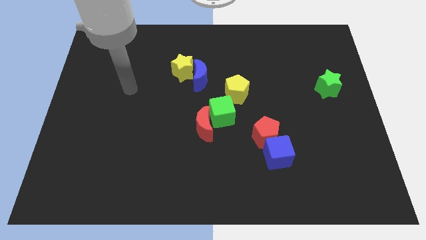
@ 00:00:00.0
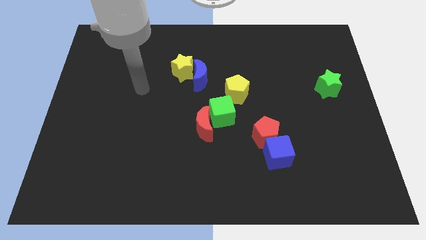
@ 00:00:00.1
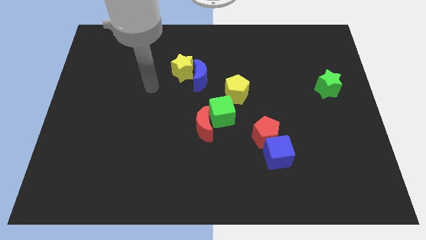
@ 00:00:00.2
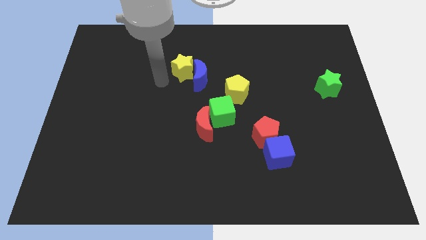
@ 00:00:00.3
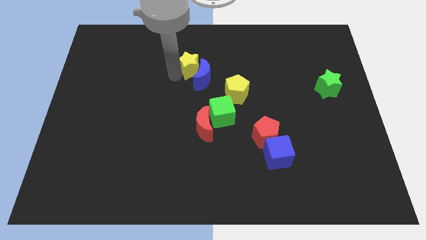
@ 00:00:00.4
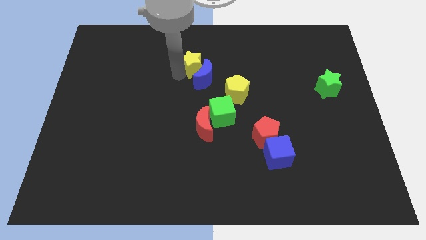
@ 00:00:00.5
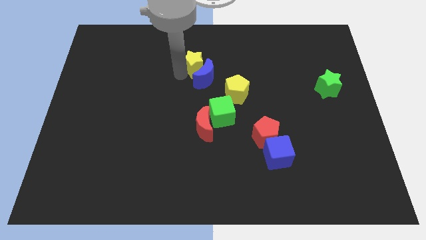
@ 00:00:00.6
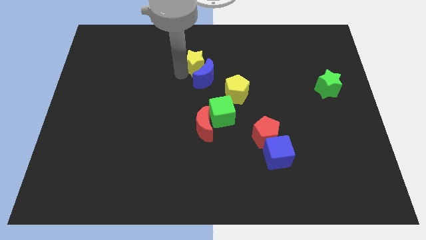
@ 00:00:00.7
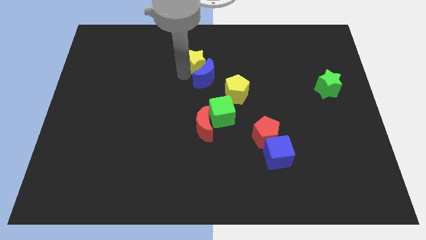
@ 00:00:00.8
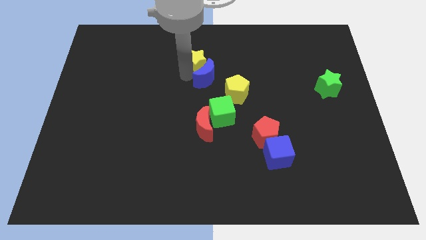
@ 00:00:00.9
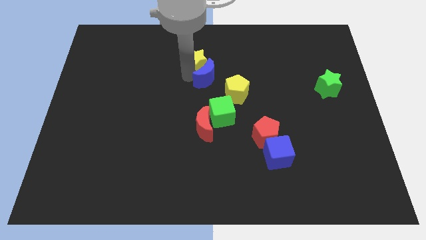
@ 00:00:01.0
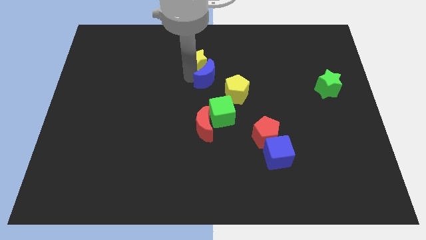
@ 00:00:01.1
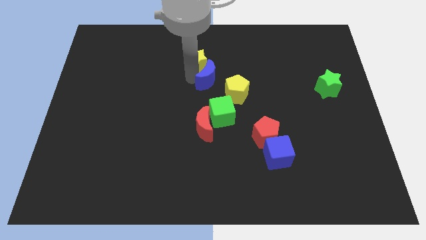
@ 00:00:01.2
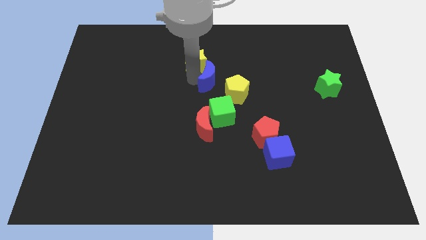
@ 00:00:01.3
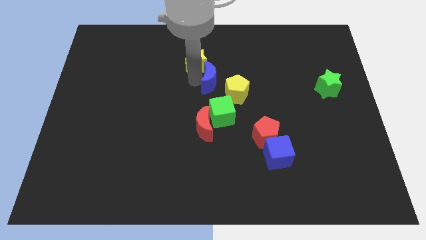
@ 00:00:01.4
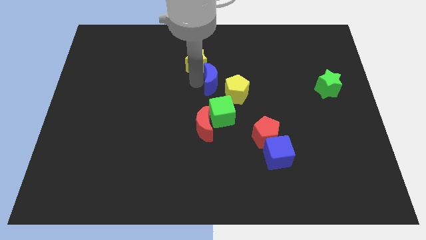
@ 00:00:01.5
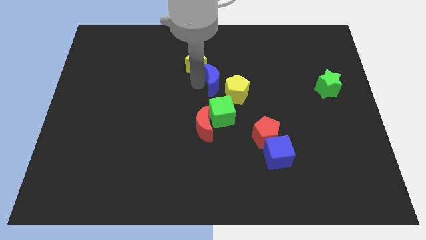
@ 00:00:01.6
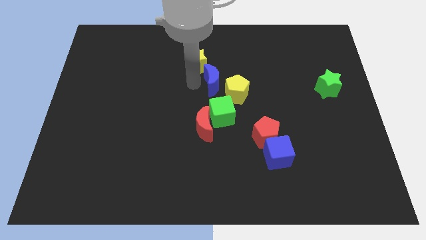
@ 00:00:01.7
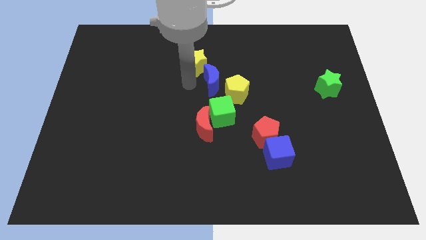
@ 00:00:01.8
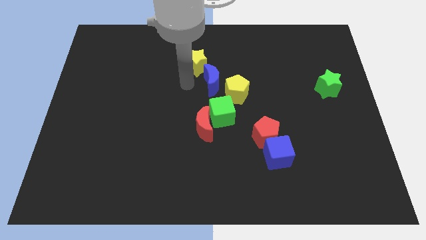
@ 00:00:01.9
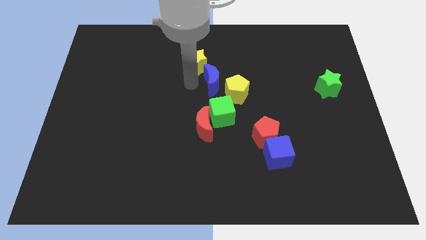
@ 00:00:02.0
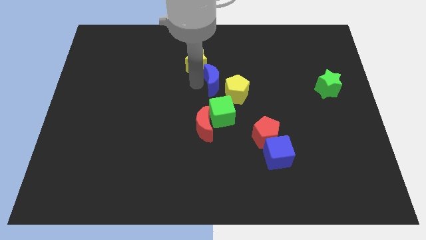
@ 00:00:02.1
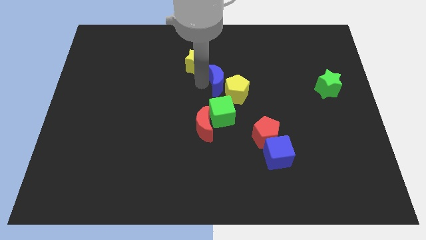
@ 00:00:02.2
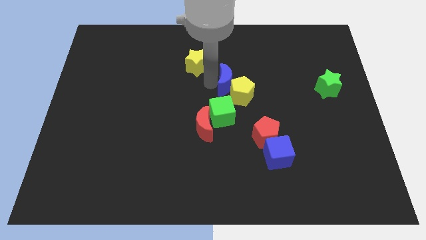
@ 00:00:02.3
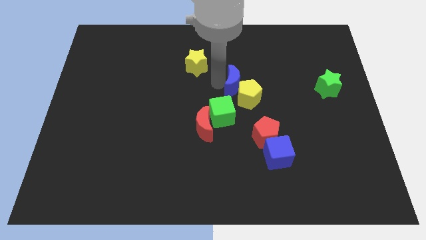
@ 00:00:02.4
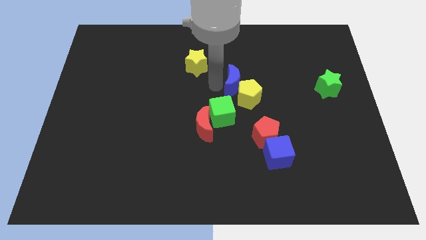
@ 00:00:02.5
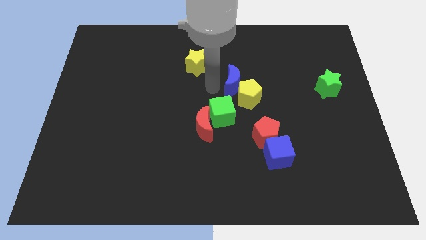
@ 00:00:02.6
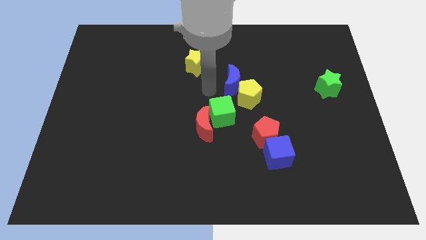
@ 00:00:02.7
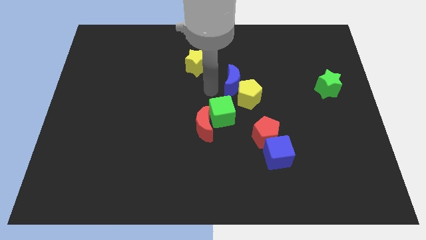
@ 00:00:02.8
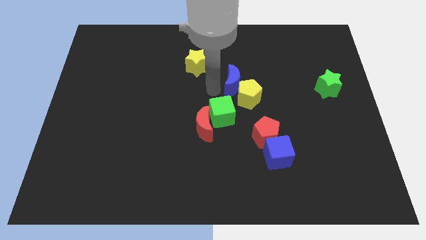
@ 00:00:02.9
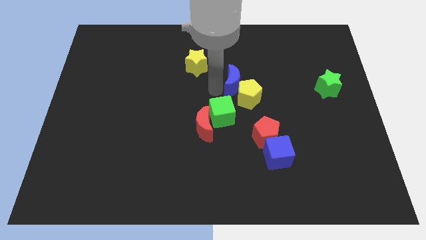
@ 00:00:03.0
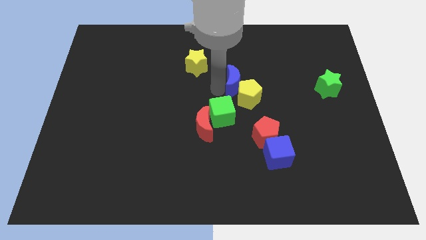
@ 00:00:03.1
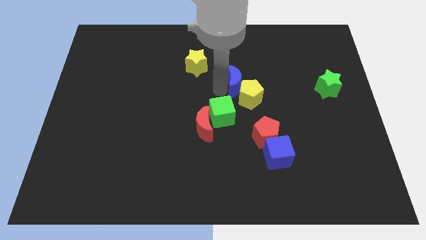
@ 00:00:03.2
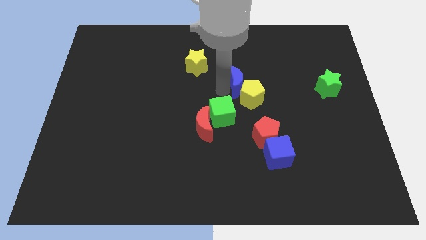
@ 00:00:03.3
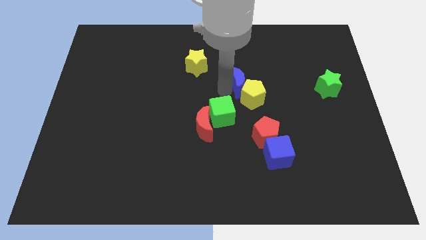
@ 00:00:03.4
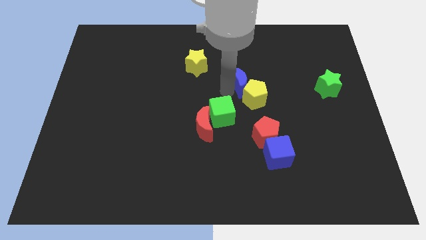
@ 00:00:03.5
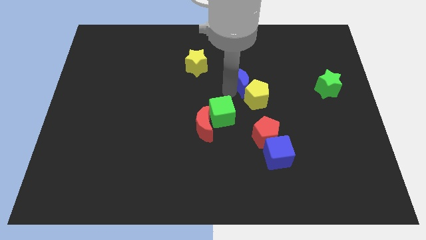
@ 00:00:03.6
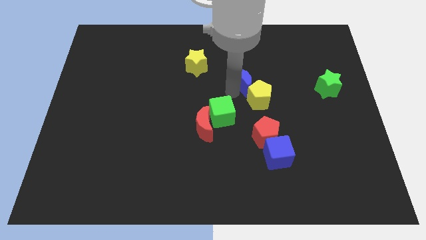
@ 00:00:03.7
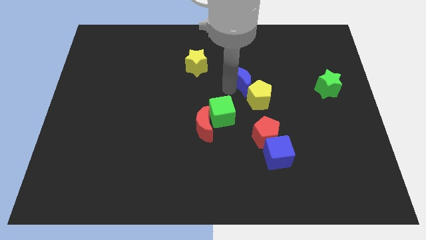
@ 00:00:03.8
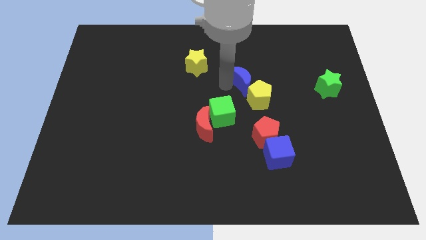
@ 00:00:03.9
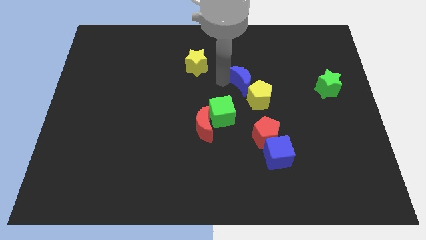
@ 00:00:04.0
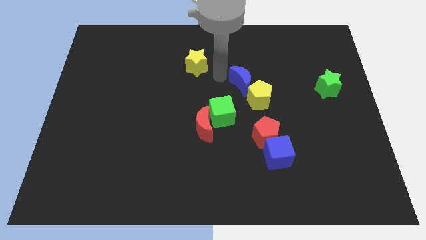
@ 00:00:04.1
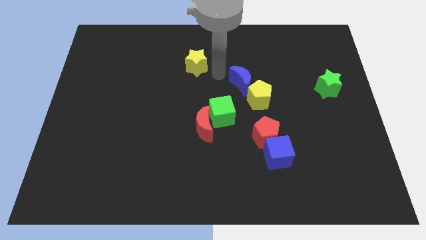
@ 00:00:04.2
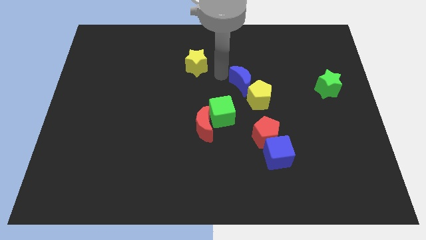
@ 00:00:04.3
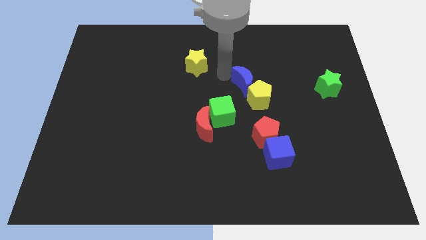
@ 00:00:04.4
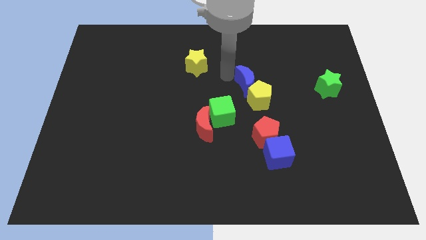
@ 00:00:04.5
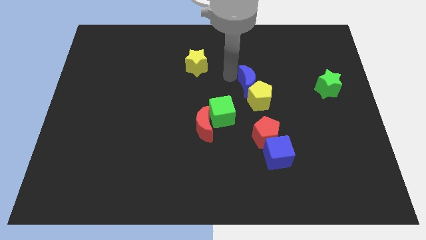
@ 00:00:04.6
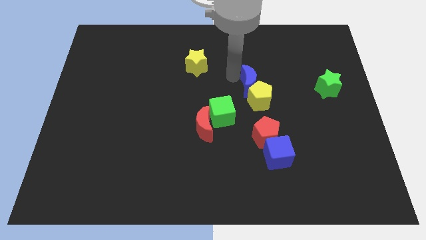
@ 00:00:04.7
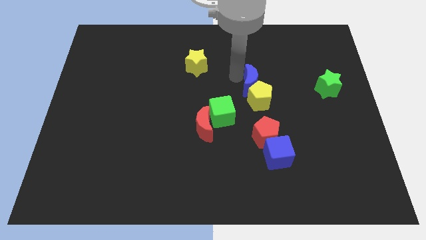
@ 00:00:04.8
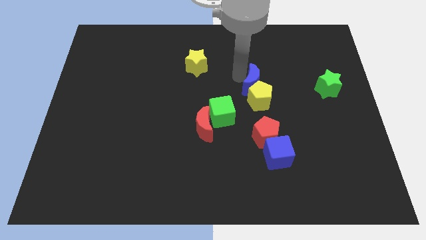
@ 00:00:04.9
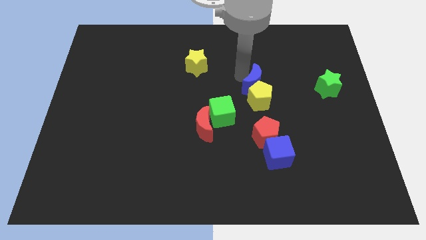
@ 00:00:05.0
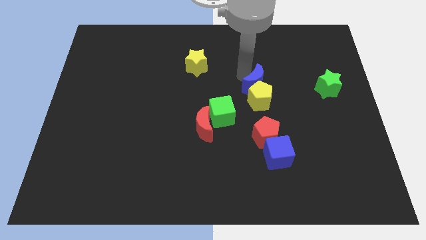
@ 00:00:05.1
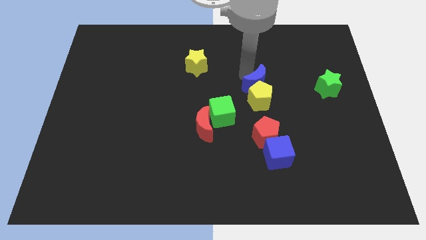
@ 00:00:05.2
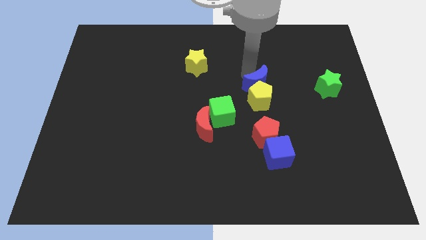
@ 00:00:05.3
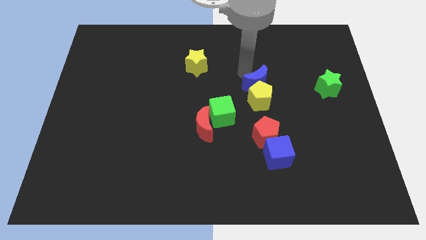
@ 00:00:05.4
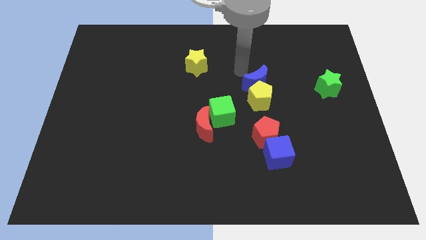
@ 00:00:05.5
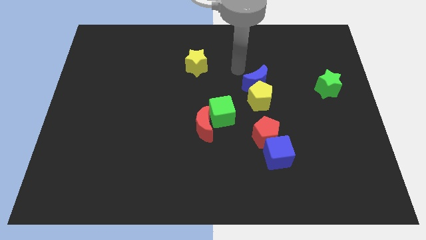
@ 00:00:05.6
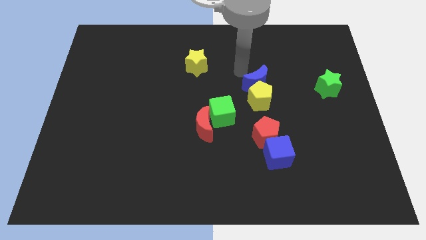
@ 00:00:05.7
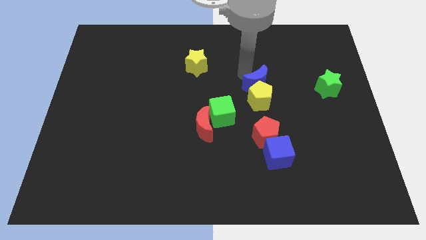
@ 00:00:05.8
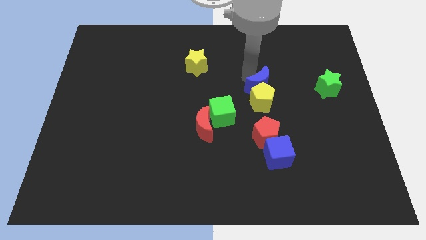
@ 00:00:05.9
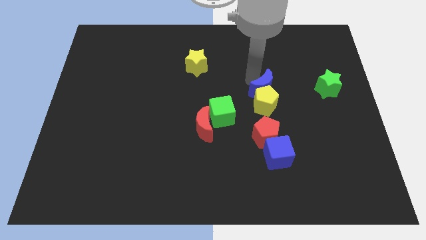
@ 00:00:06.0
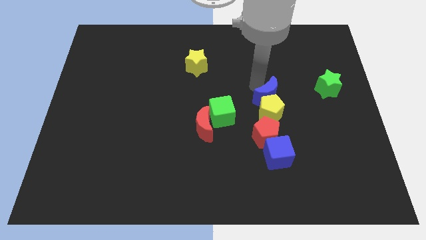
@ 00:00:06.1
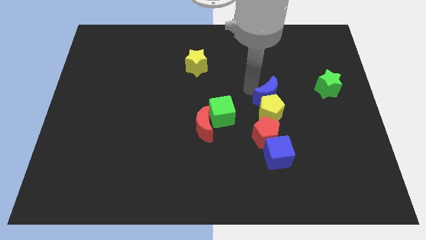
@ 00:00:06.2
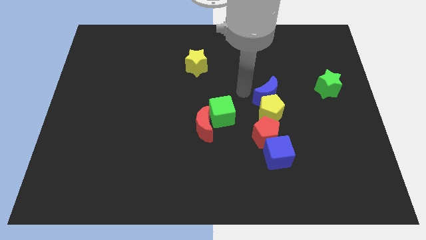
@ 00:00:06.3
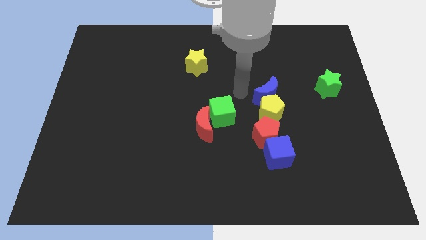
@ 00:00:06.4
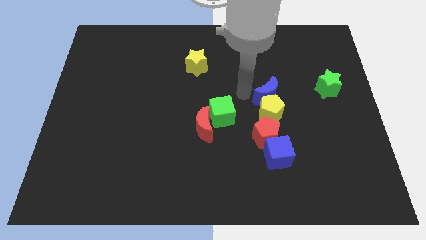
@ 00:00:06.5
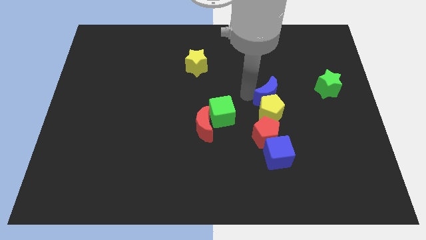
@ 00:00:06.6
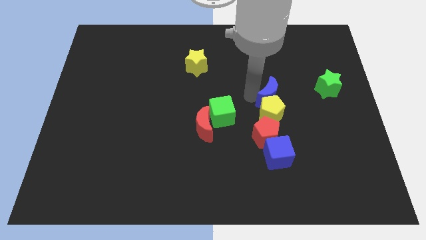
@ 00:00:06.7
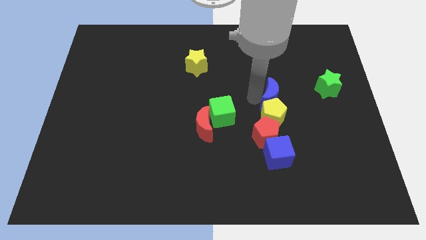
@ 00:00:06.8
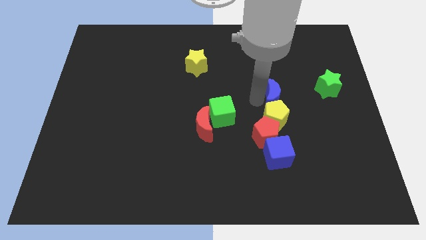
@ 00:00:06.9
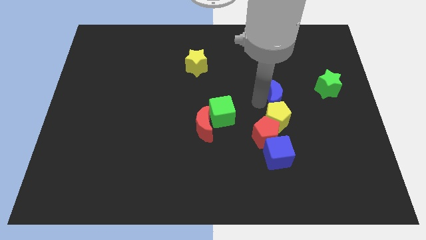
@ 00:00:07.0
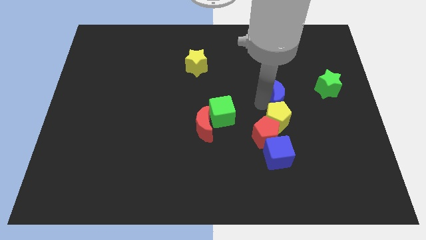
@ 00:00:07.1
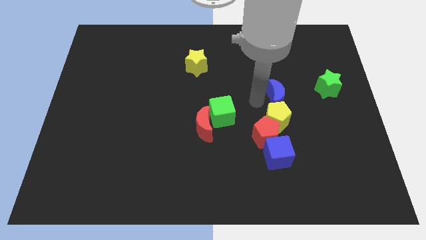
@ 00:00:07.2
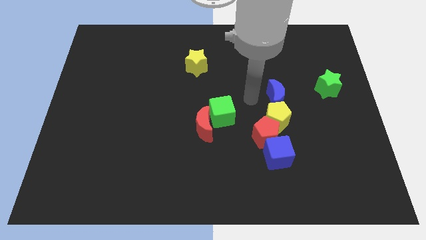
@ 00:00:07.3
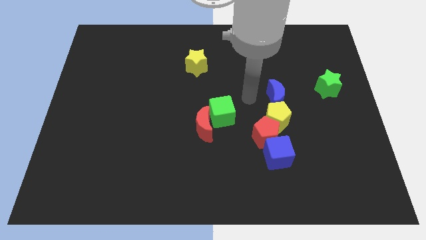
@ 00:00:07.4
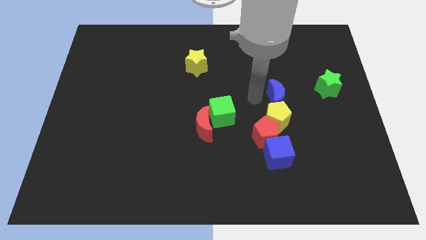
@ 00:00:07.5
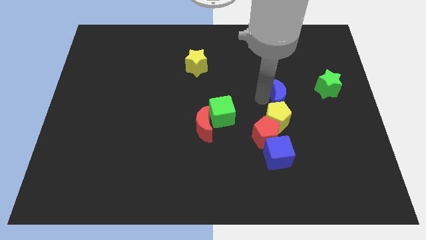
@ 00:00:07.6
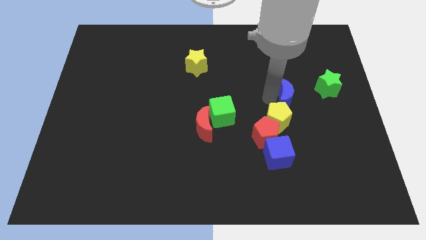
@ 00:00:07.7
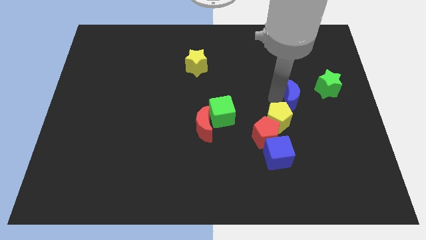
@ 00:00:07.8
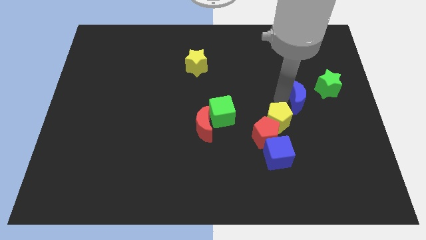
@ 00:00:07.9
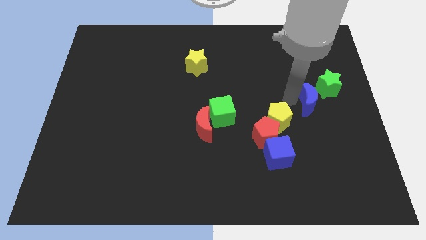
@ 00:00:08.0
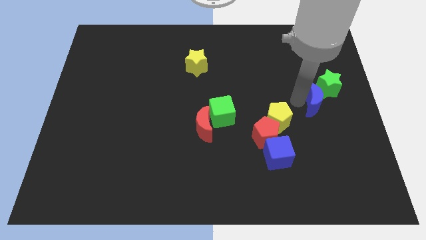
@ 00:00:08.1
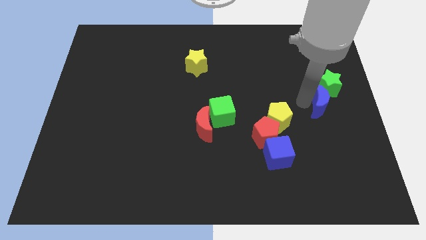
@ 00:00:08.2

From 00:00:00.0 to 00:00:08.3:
put the blue moon to the right side of the board
